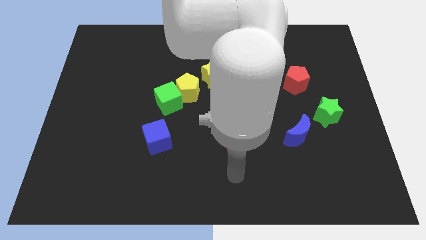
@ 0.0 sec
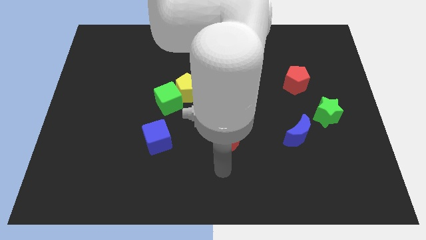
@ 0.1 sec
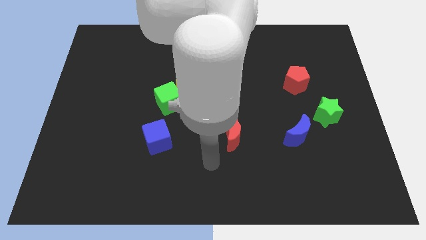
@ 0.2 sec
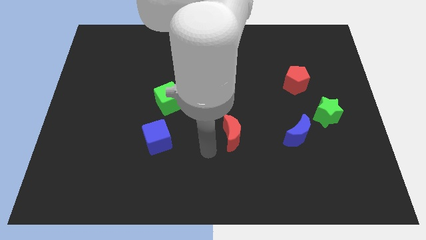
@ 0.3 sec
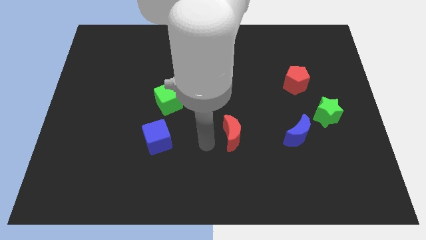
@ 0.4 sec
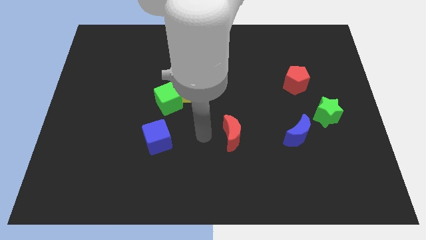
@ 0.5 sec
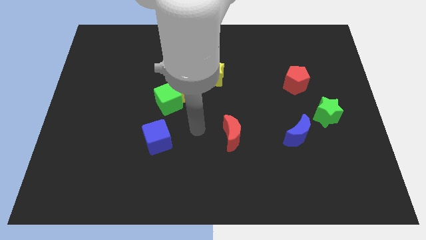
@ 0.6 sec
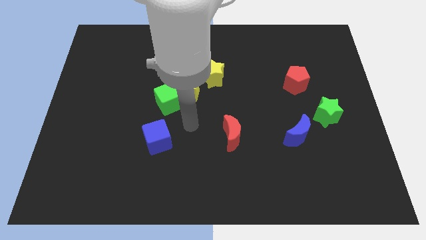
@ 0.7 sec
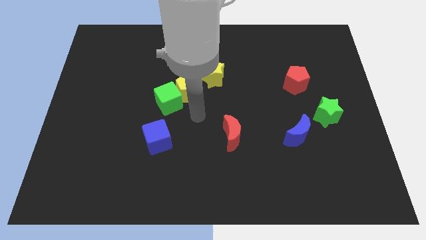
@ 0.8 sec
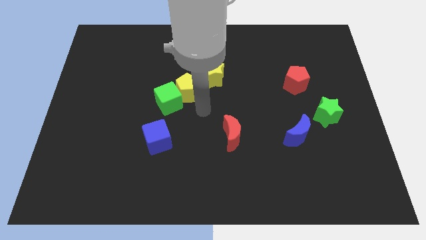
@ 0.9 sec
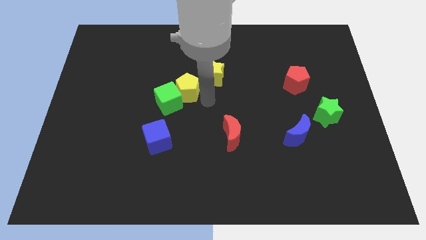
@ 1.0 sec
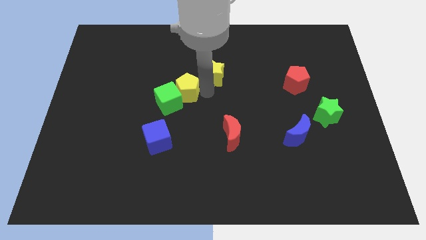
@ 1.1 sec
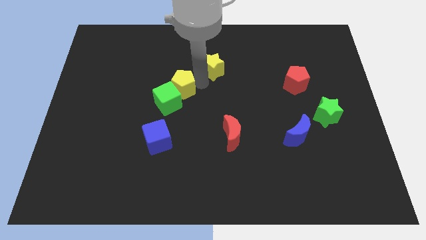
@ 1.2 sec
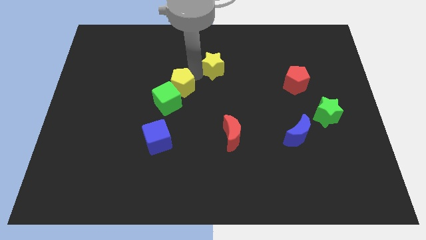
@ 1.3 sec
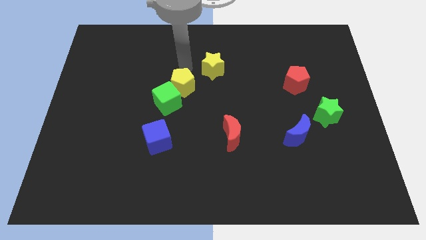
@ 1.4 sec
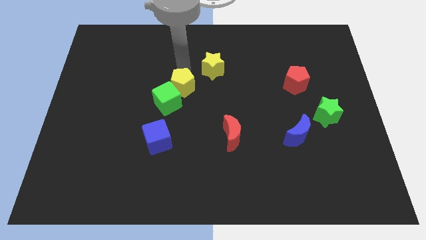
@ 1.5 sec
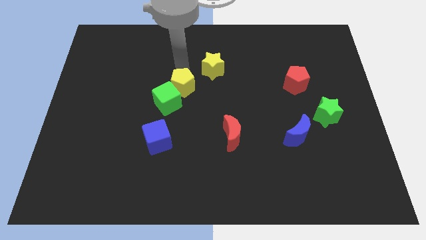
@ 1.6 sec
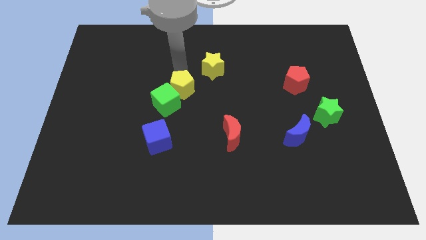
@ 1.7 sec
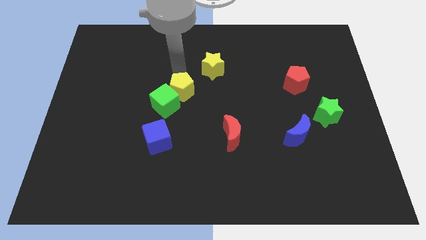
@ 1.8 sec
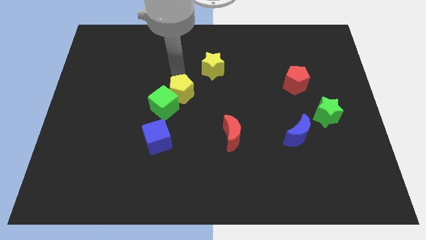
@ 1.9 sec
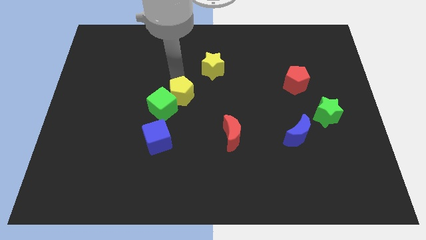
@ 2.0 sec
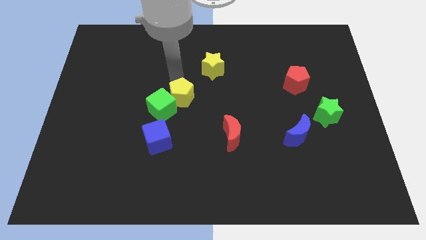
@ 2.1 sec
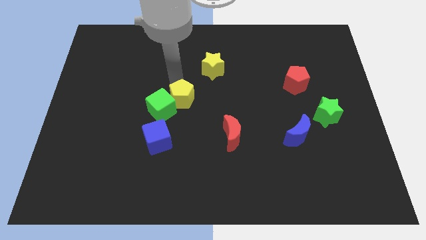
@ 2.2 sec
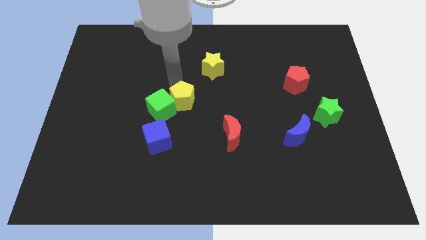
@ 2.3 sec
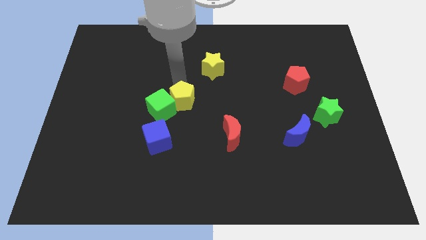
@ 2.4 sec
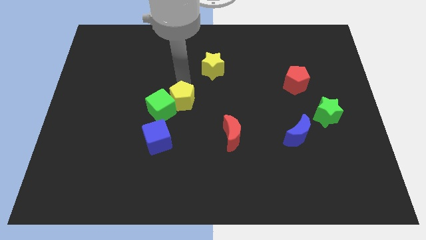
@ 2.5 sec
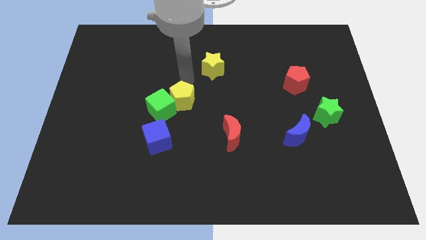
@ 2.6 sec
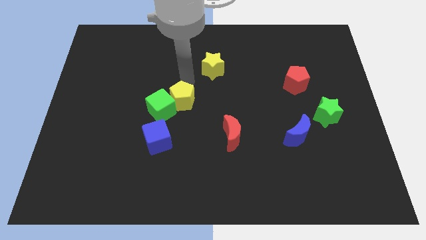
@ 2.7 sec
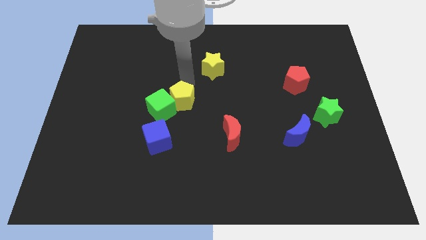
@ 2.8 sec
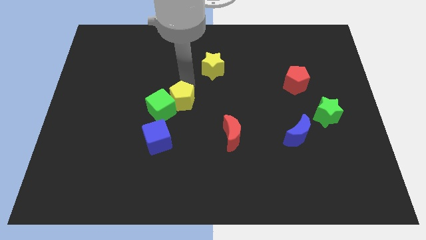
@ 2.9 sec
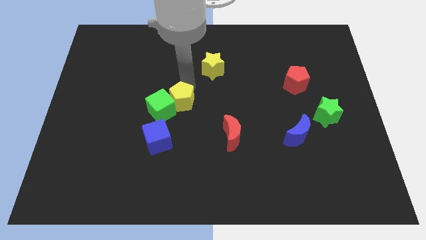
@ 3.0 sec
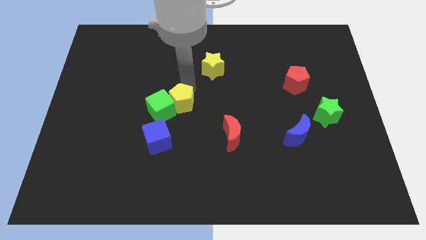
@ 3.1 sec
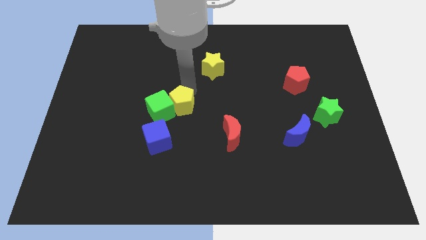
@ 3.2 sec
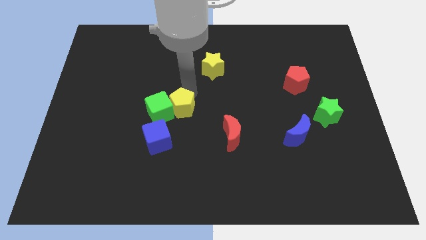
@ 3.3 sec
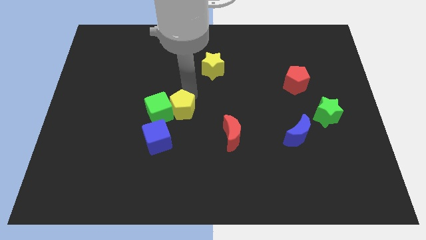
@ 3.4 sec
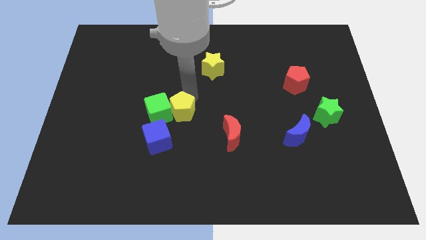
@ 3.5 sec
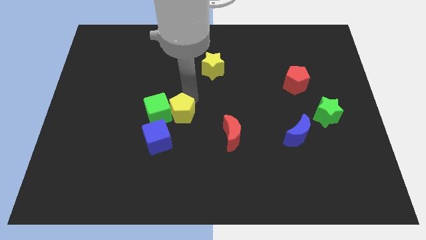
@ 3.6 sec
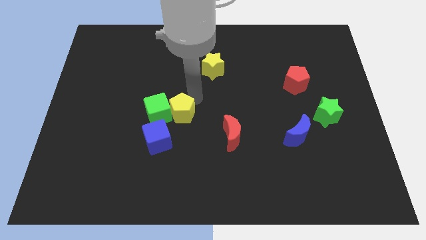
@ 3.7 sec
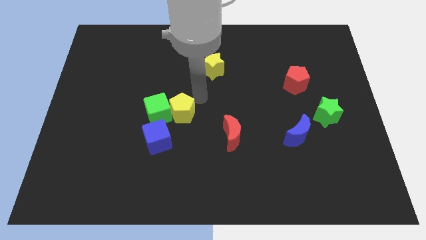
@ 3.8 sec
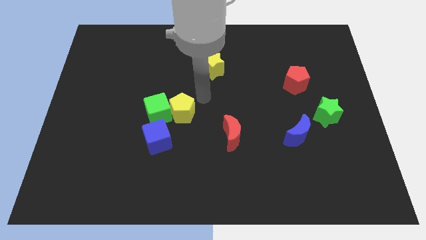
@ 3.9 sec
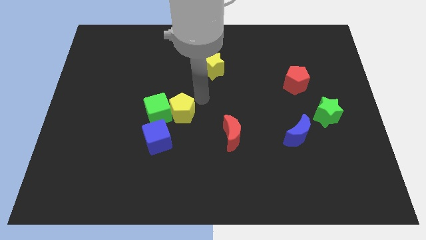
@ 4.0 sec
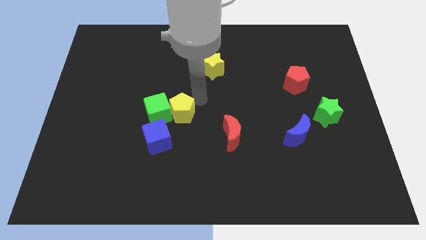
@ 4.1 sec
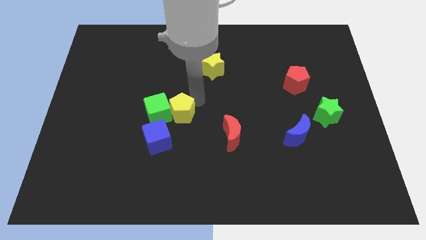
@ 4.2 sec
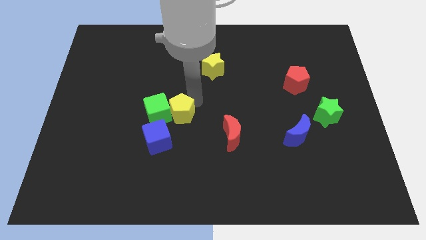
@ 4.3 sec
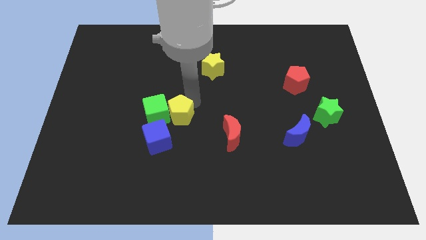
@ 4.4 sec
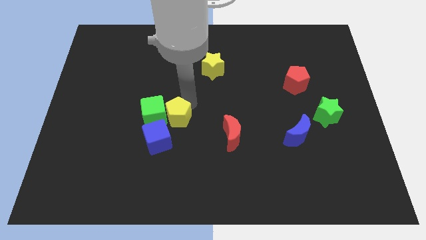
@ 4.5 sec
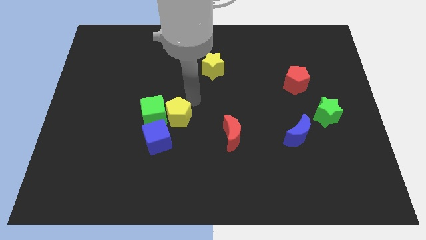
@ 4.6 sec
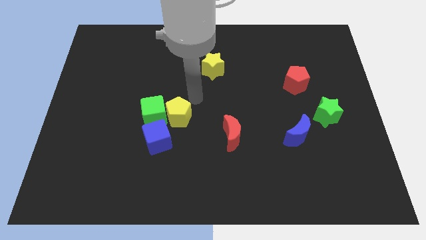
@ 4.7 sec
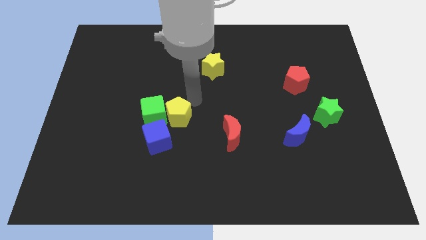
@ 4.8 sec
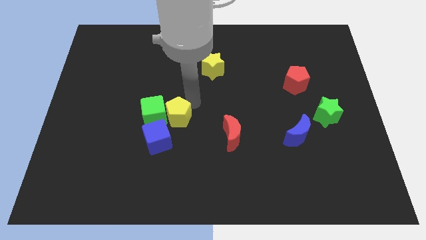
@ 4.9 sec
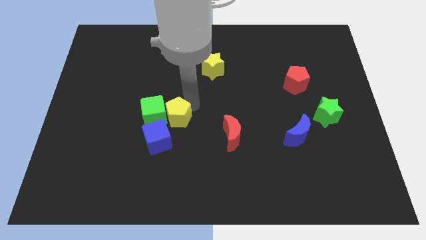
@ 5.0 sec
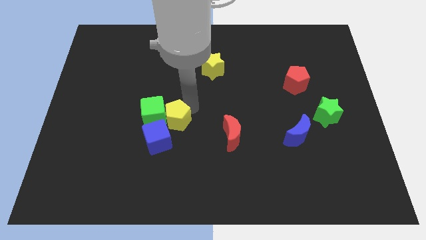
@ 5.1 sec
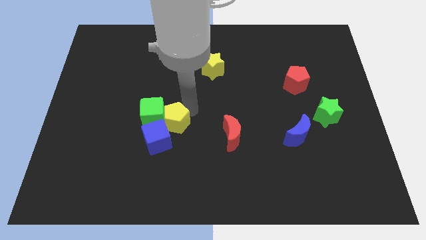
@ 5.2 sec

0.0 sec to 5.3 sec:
move the yellow pentagon next to the blue cube

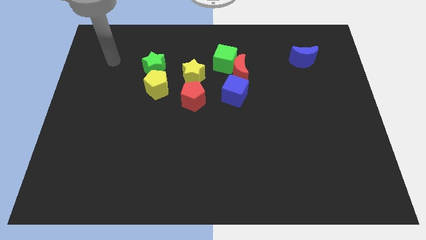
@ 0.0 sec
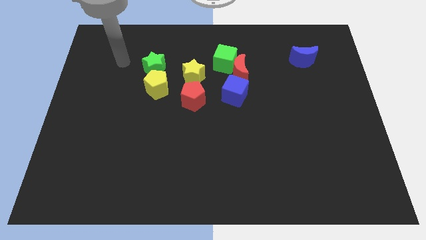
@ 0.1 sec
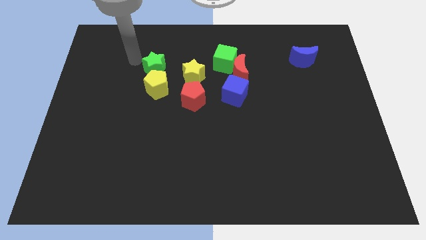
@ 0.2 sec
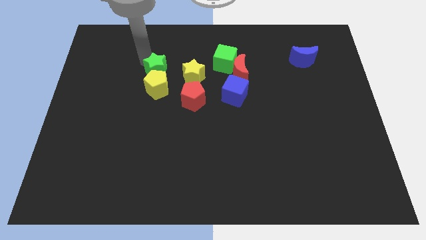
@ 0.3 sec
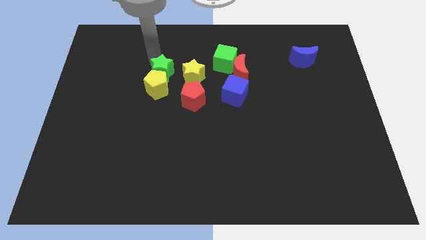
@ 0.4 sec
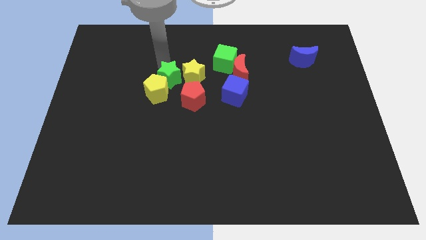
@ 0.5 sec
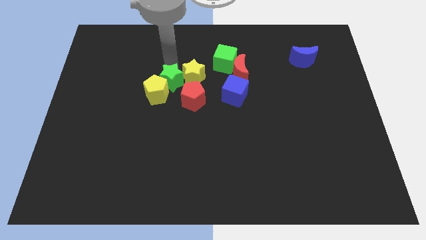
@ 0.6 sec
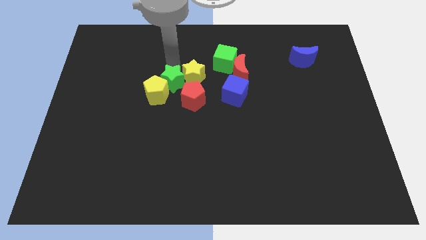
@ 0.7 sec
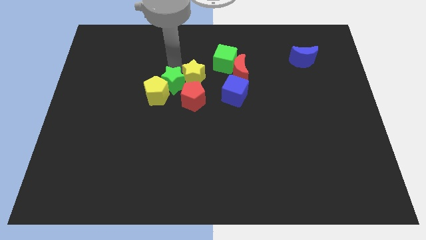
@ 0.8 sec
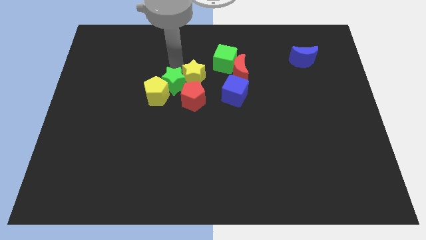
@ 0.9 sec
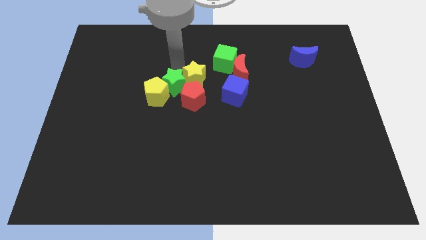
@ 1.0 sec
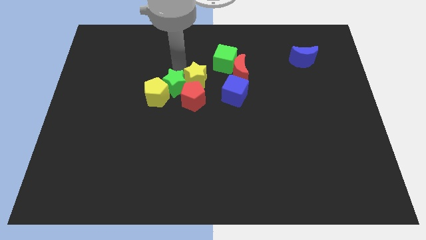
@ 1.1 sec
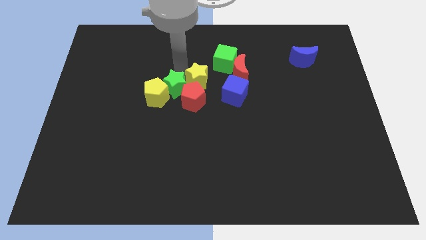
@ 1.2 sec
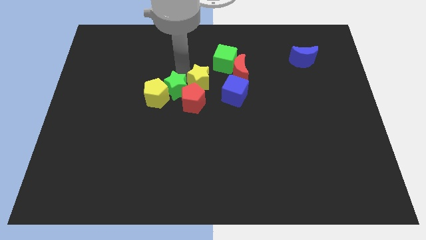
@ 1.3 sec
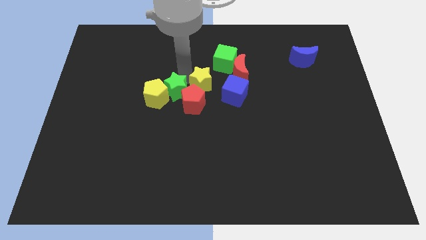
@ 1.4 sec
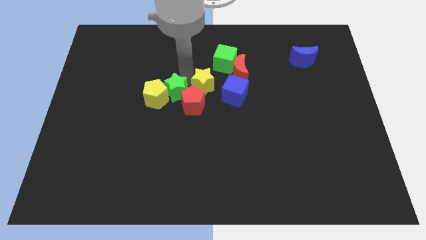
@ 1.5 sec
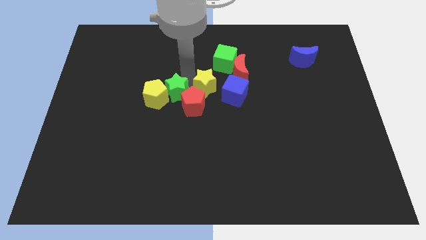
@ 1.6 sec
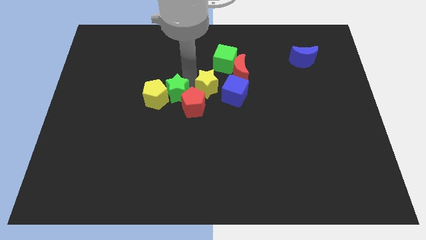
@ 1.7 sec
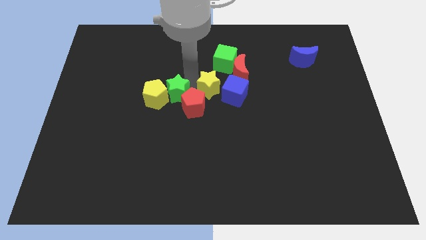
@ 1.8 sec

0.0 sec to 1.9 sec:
slide the yellow star towards the blue cube
